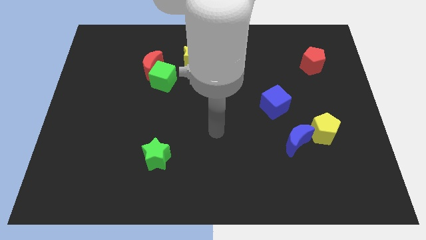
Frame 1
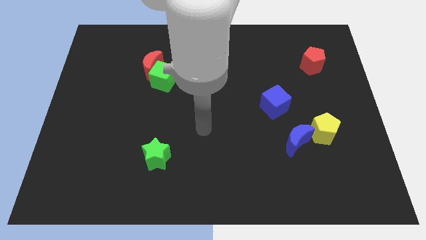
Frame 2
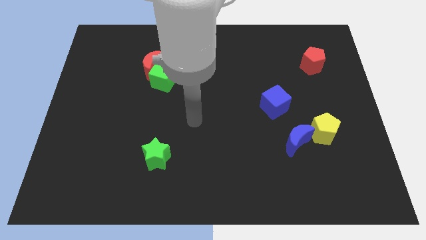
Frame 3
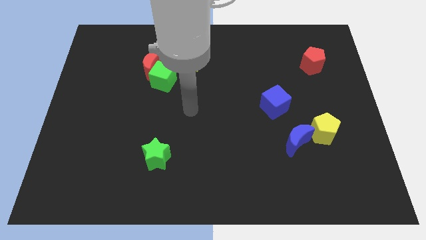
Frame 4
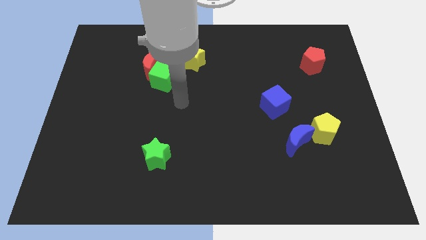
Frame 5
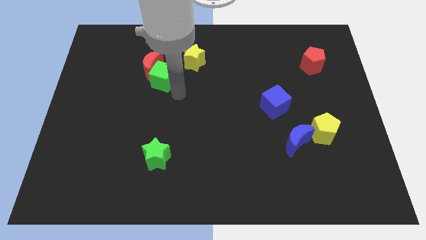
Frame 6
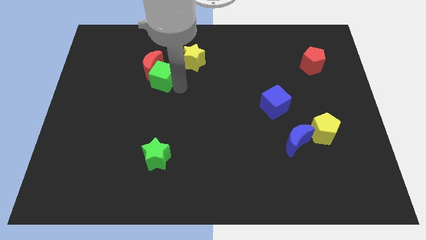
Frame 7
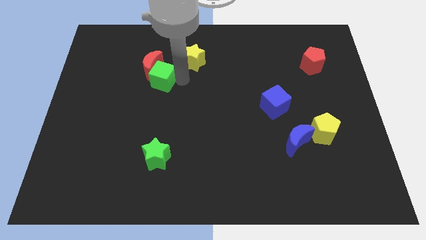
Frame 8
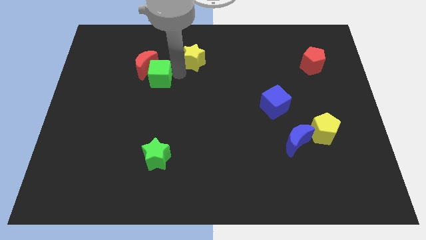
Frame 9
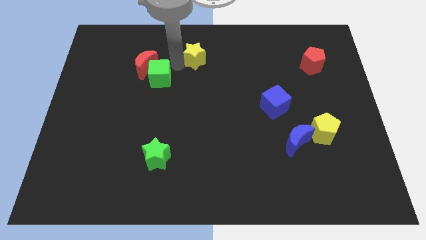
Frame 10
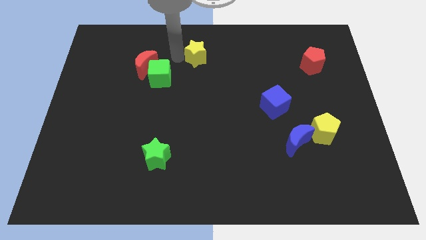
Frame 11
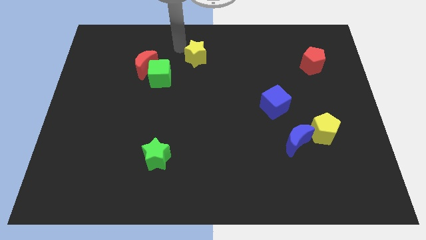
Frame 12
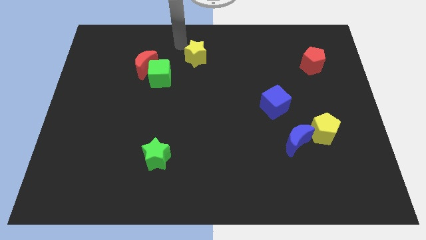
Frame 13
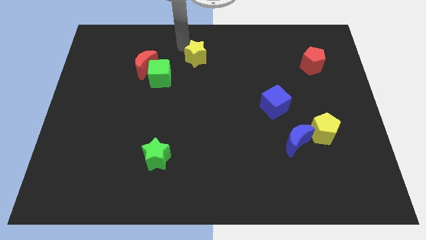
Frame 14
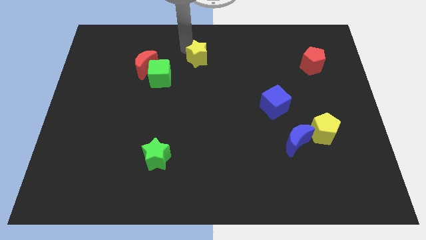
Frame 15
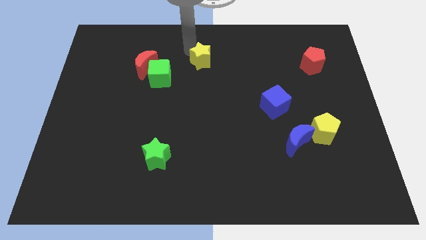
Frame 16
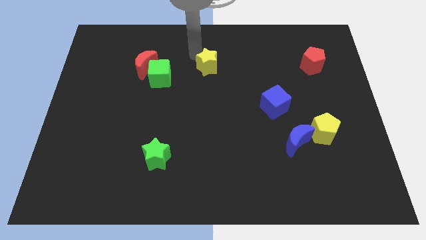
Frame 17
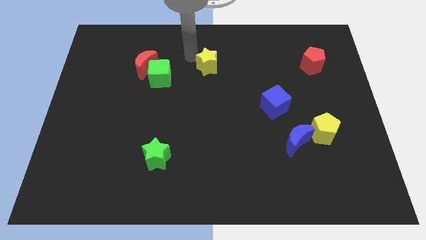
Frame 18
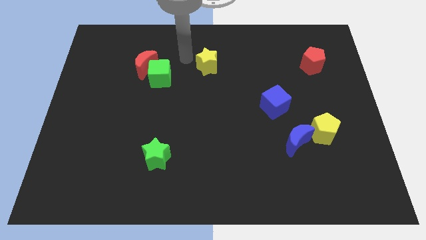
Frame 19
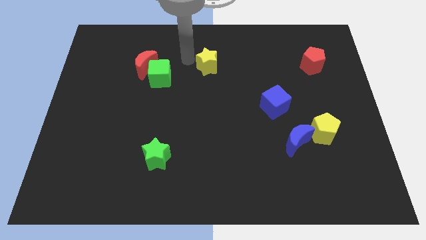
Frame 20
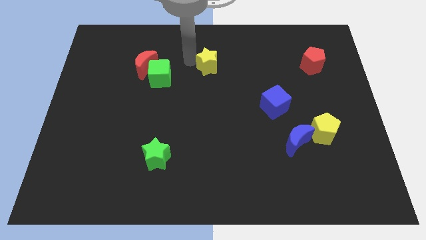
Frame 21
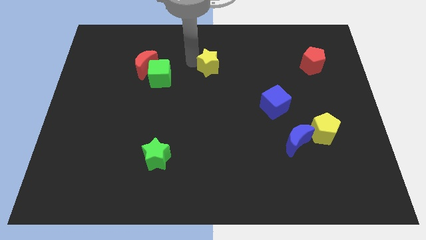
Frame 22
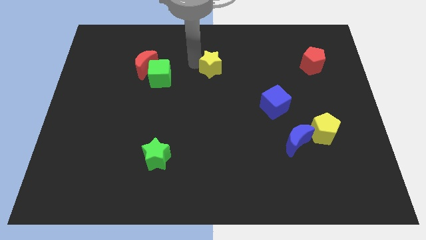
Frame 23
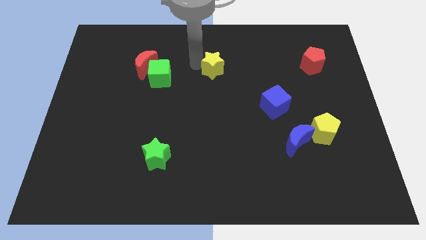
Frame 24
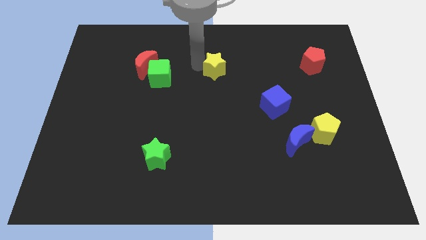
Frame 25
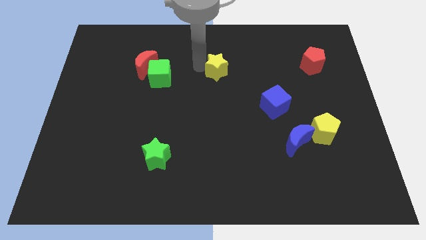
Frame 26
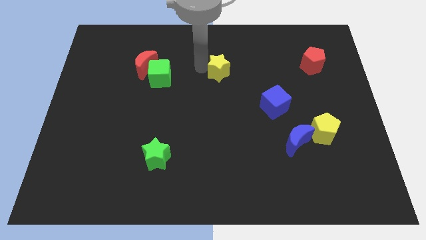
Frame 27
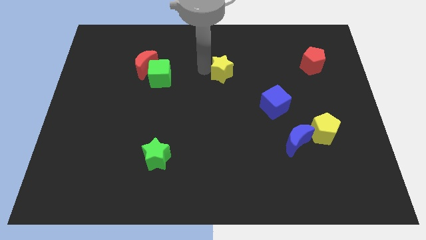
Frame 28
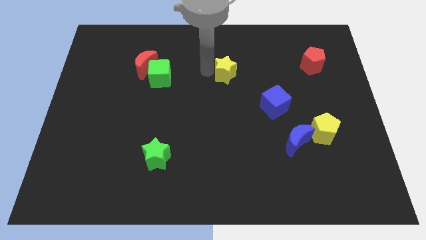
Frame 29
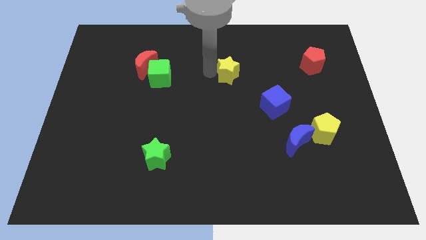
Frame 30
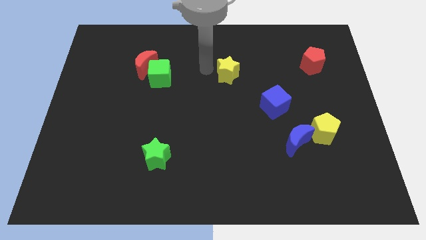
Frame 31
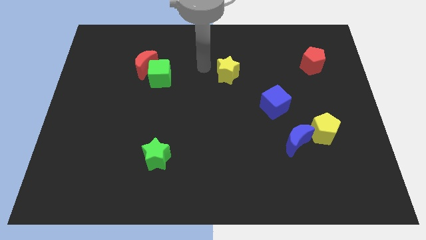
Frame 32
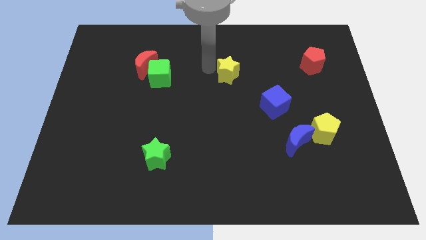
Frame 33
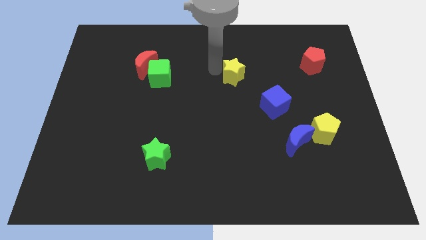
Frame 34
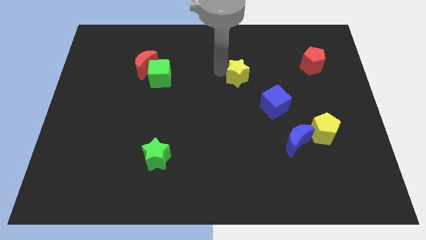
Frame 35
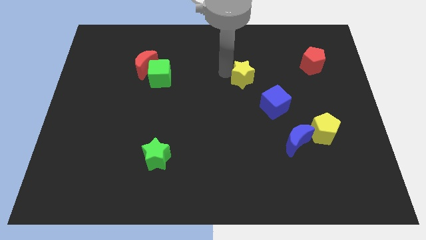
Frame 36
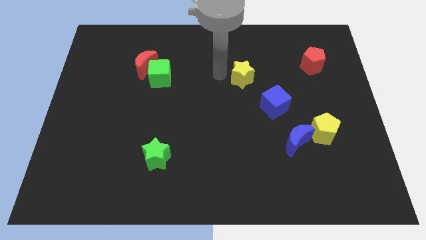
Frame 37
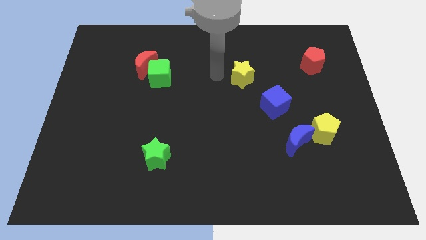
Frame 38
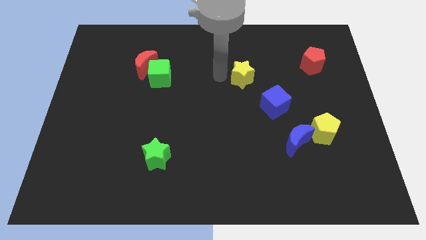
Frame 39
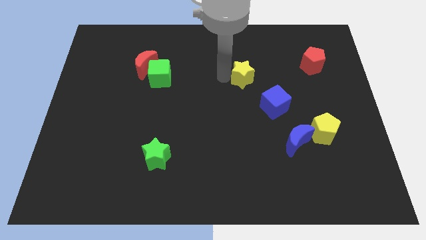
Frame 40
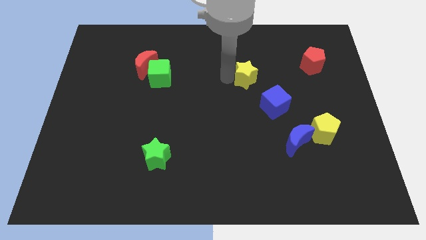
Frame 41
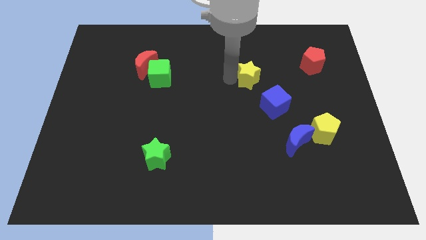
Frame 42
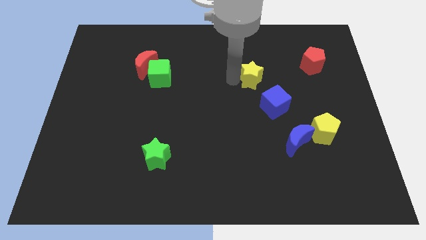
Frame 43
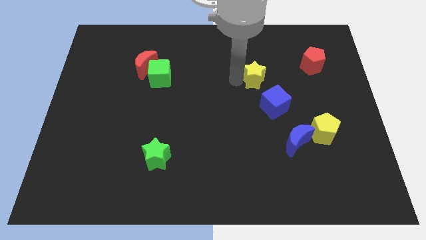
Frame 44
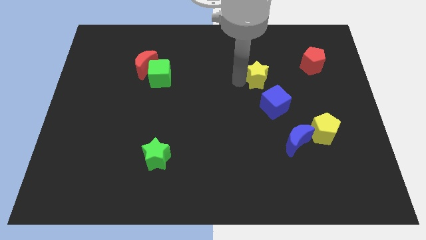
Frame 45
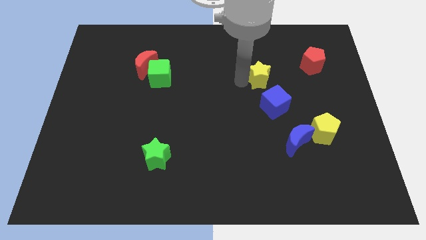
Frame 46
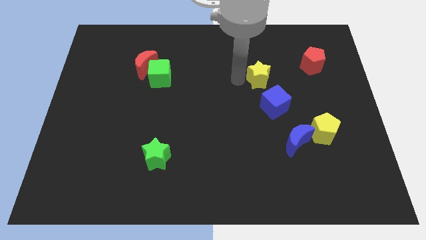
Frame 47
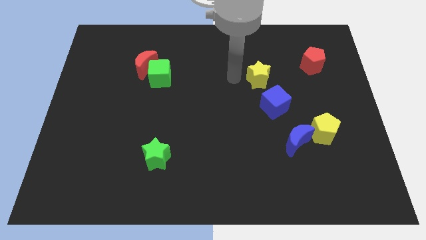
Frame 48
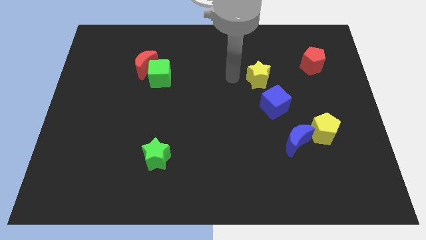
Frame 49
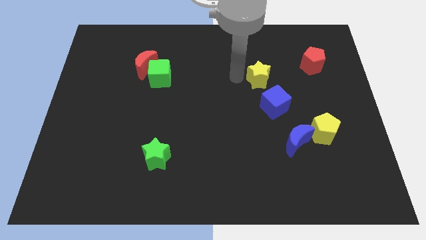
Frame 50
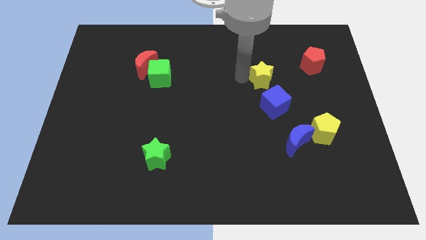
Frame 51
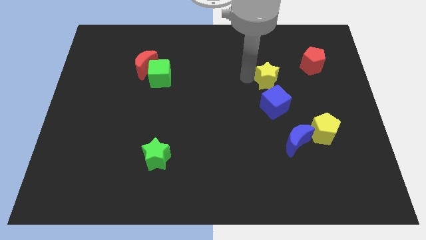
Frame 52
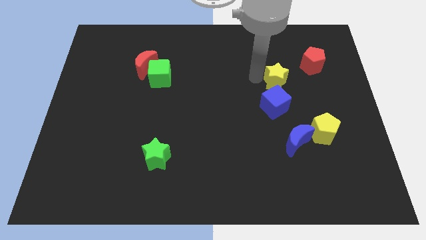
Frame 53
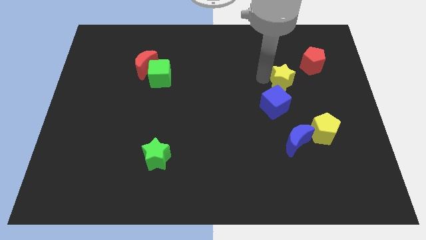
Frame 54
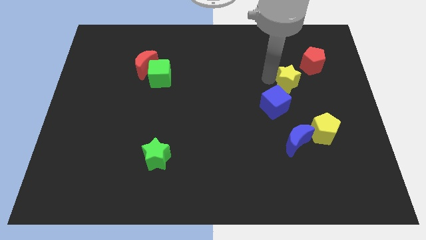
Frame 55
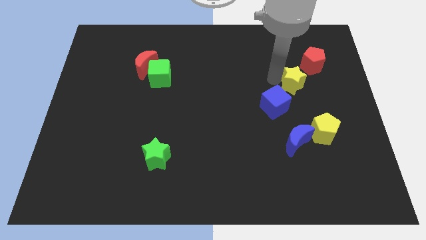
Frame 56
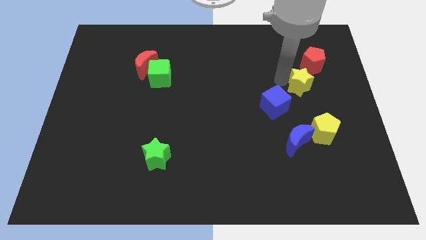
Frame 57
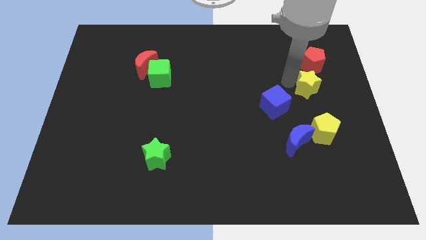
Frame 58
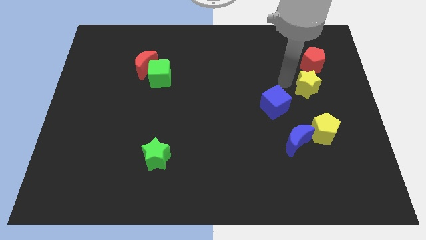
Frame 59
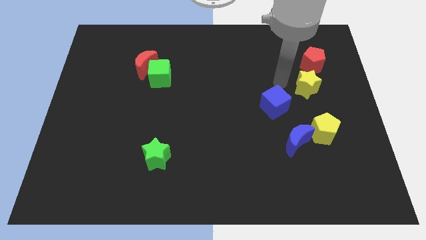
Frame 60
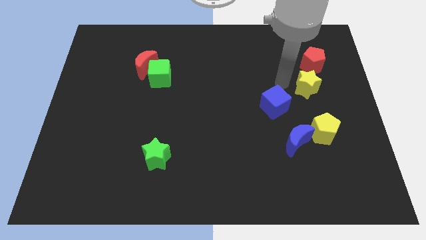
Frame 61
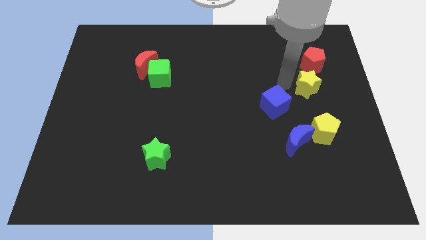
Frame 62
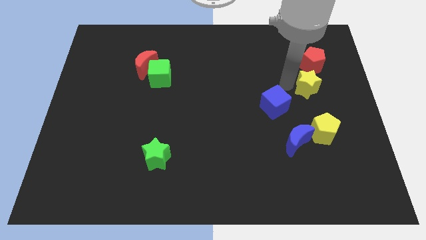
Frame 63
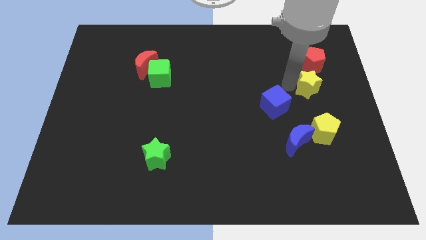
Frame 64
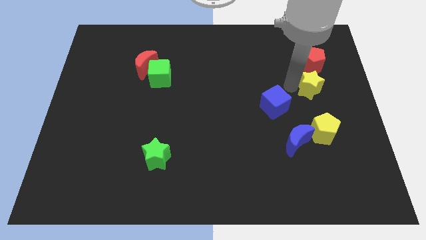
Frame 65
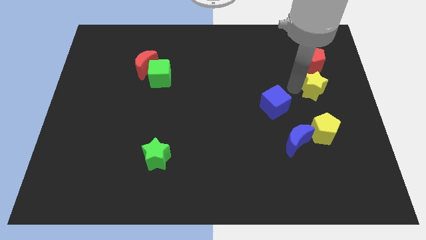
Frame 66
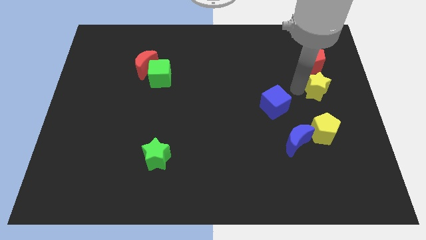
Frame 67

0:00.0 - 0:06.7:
move the yellow star to the center right

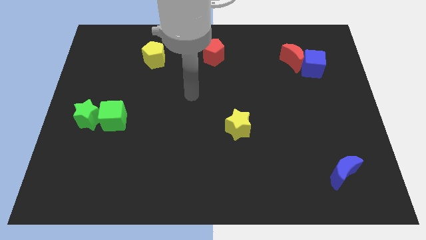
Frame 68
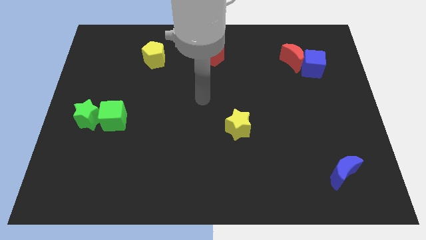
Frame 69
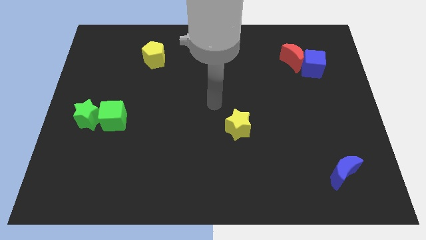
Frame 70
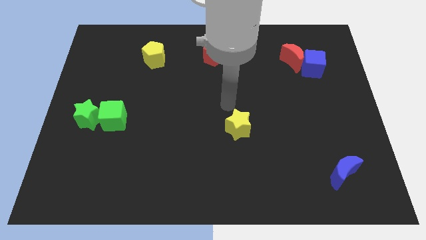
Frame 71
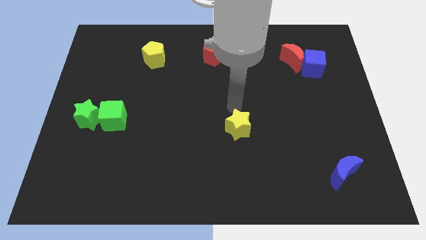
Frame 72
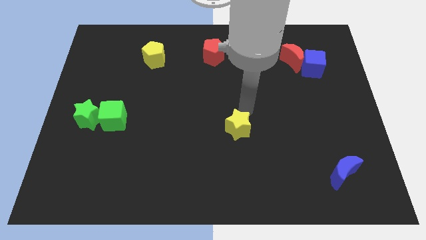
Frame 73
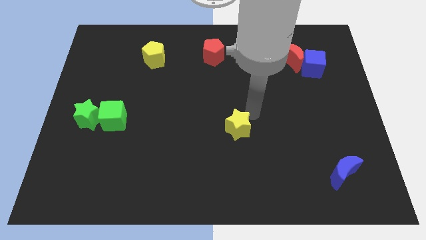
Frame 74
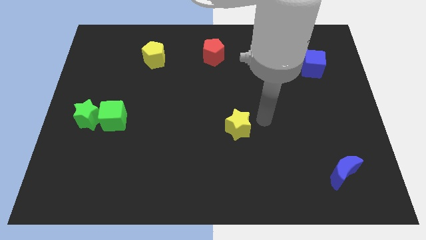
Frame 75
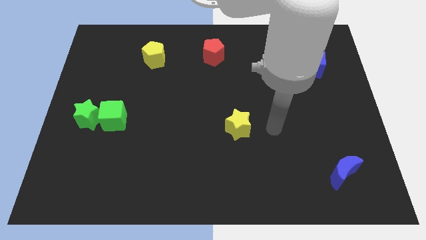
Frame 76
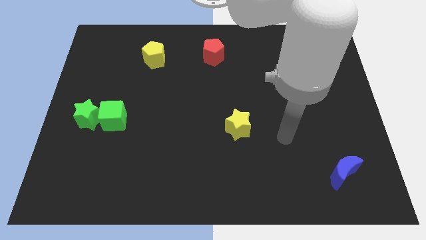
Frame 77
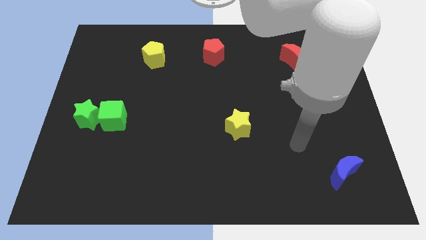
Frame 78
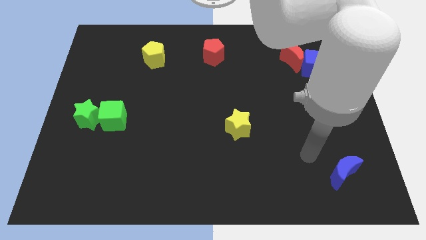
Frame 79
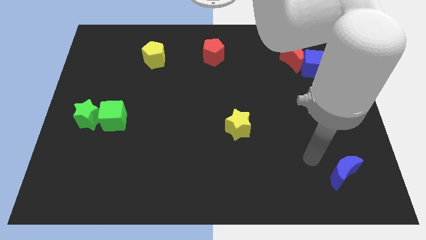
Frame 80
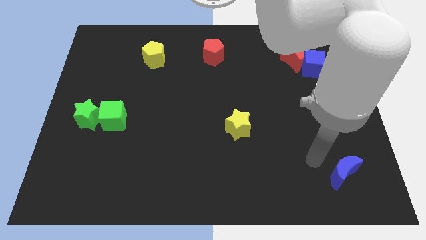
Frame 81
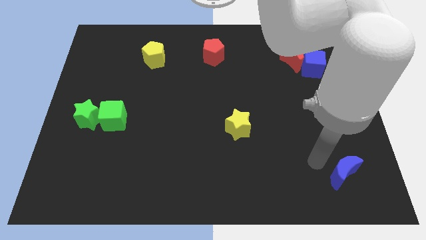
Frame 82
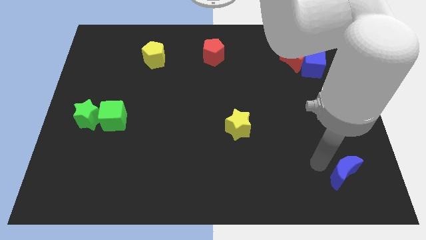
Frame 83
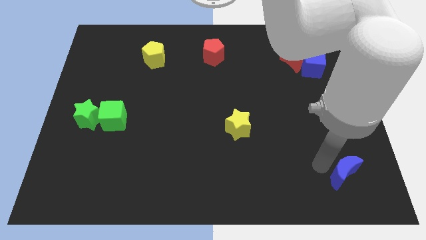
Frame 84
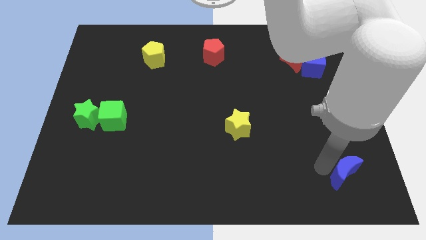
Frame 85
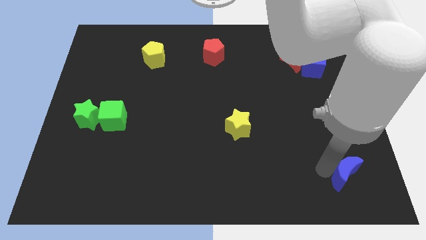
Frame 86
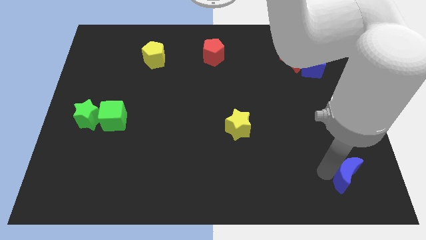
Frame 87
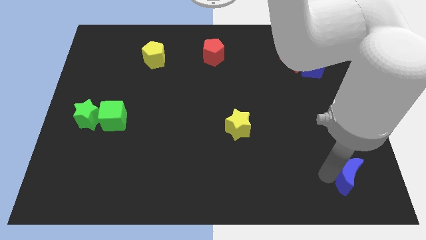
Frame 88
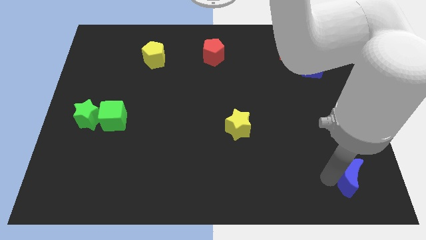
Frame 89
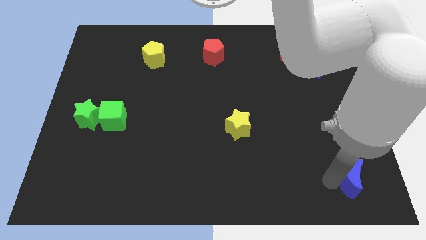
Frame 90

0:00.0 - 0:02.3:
push the blue moon to the bottom right of the board
